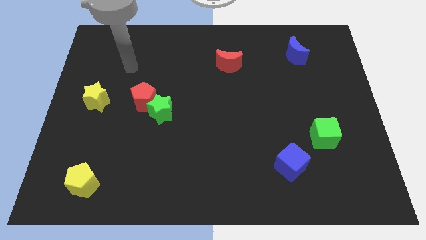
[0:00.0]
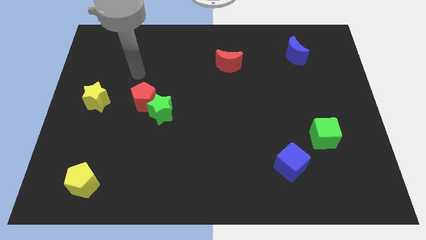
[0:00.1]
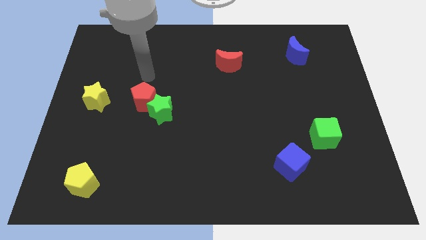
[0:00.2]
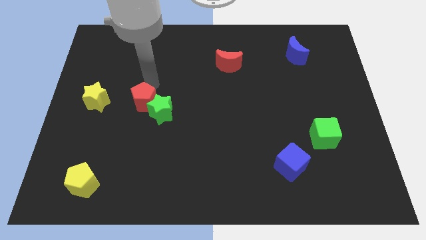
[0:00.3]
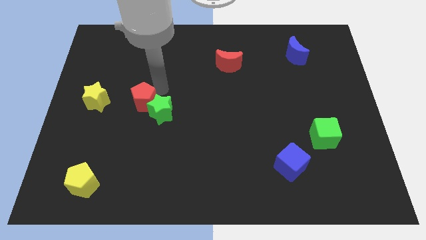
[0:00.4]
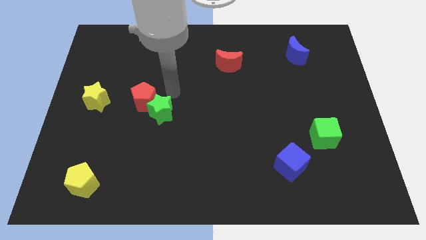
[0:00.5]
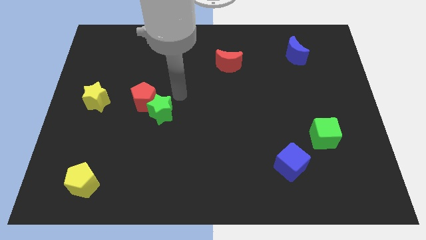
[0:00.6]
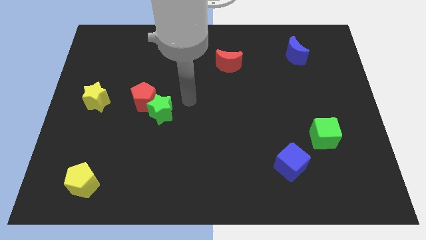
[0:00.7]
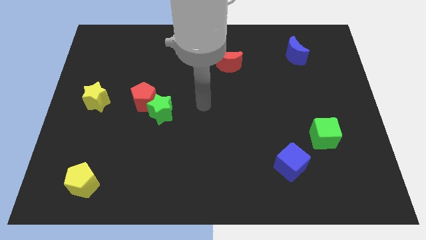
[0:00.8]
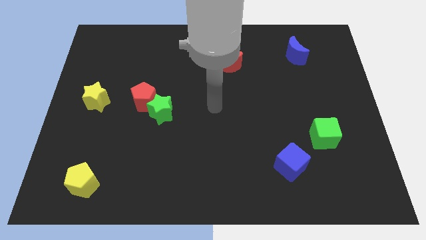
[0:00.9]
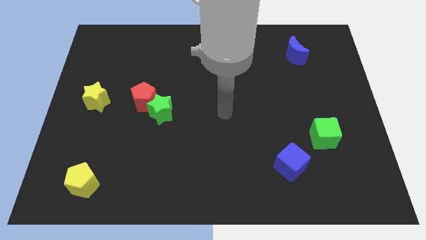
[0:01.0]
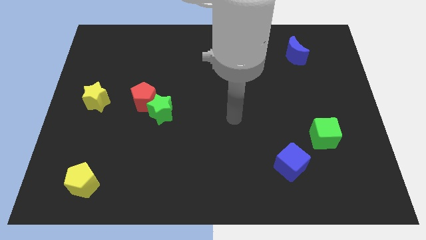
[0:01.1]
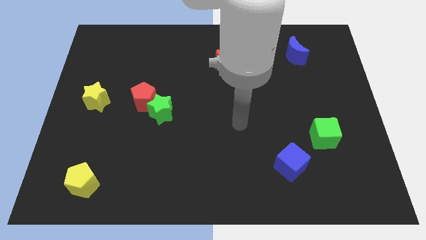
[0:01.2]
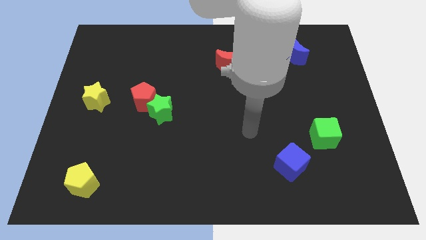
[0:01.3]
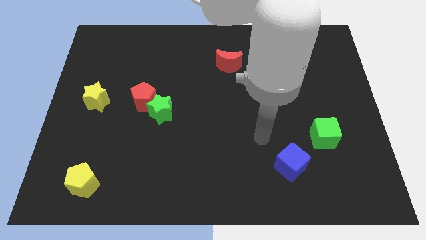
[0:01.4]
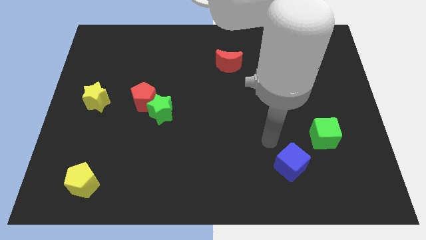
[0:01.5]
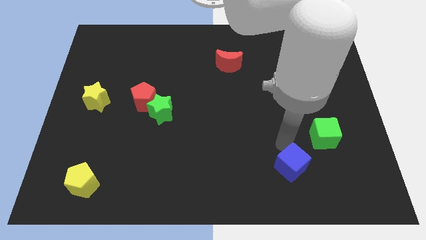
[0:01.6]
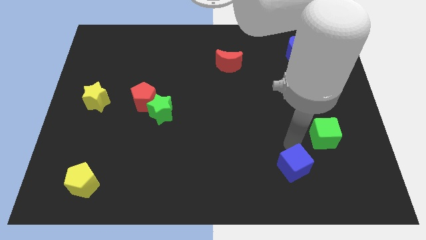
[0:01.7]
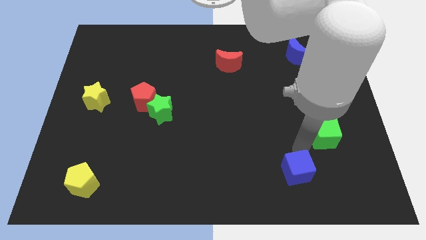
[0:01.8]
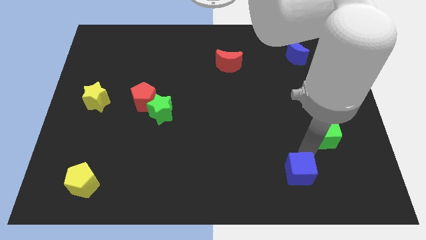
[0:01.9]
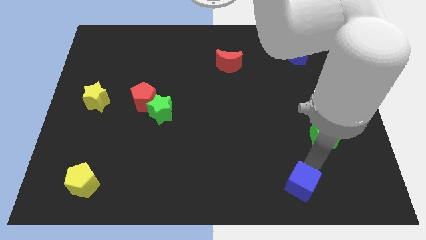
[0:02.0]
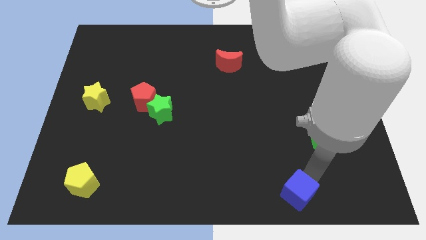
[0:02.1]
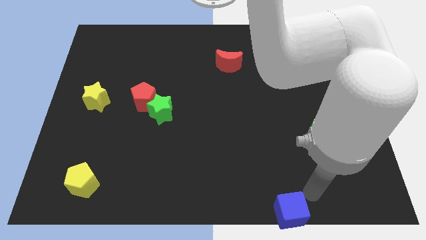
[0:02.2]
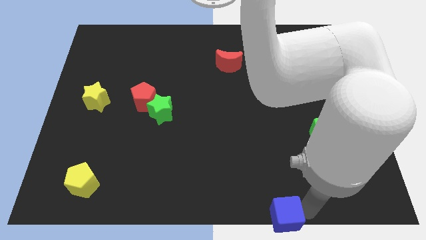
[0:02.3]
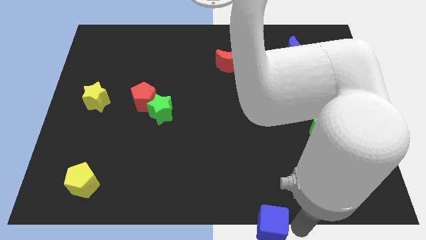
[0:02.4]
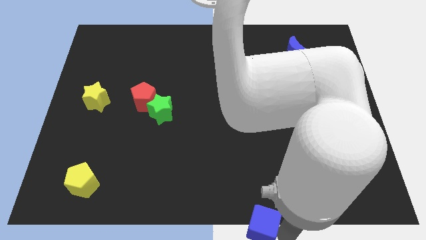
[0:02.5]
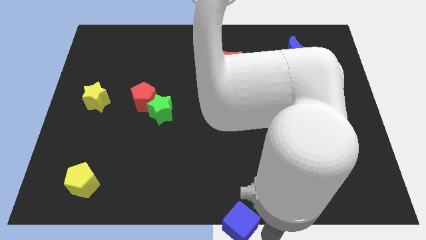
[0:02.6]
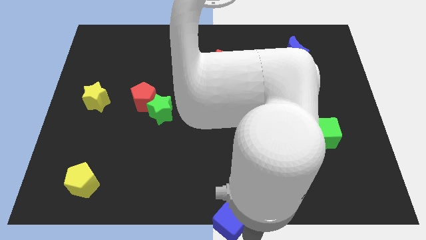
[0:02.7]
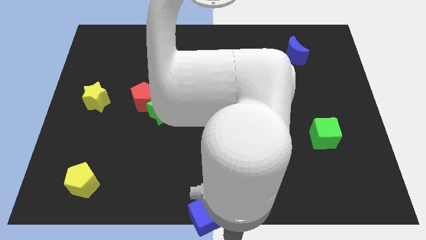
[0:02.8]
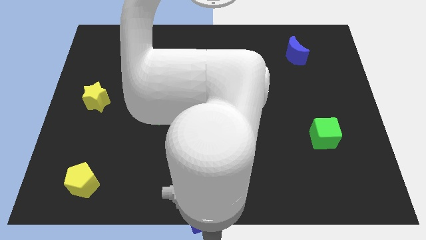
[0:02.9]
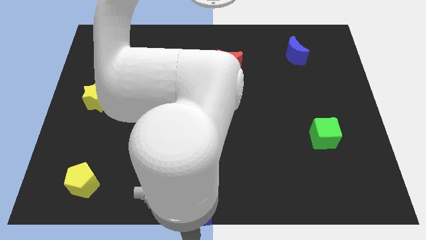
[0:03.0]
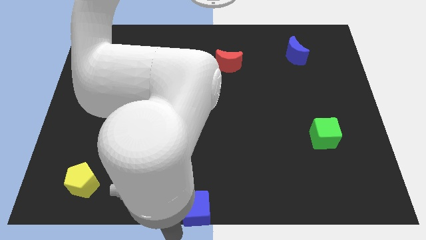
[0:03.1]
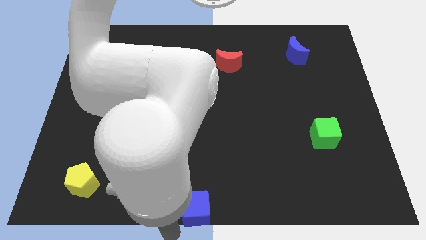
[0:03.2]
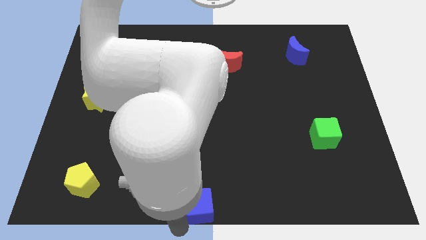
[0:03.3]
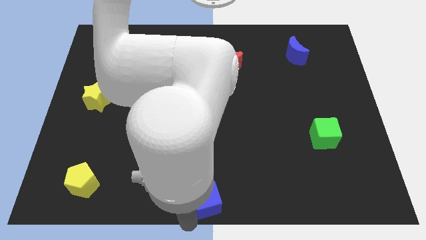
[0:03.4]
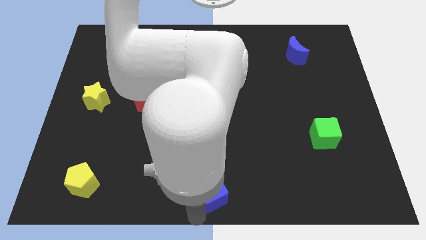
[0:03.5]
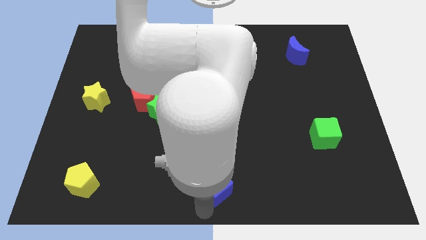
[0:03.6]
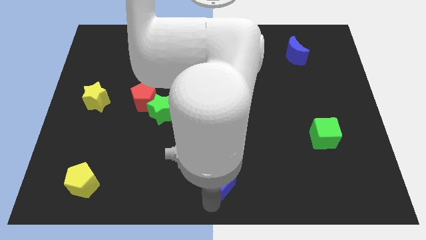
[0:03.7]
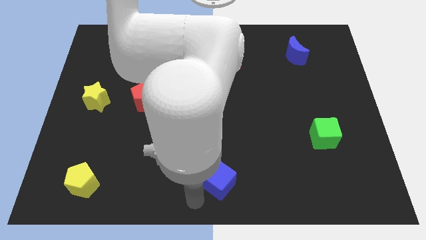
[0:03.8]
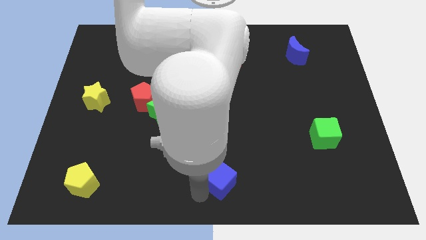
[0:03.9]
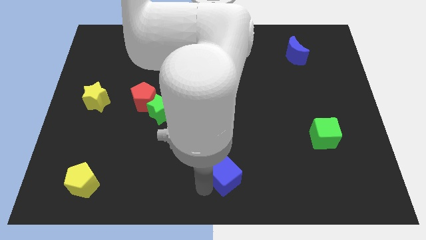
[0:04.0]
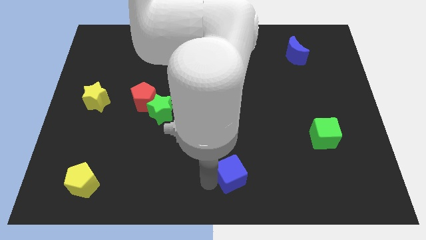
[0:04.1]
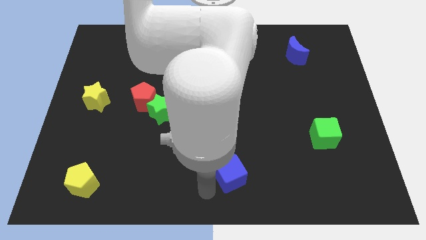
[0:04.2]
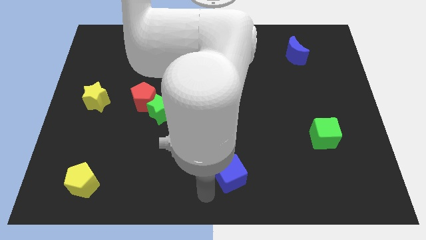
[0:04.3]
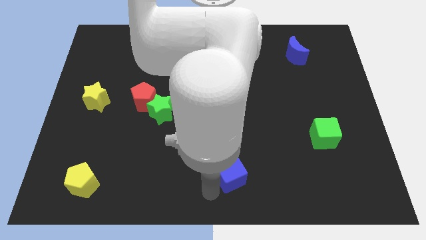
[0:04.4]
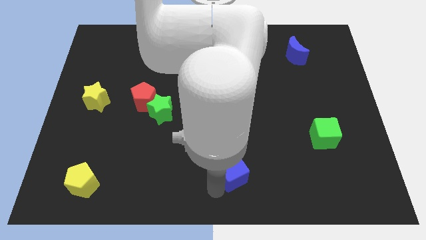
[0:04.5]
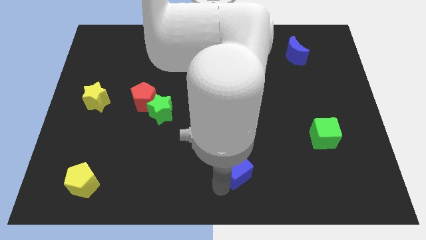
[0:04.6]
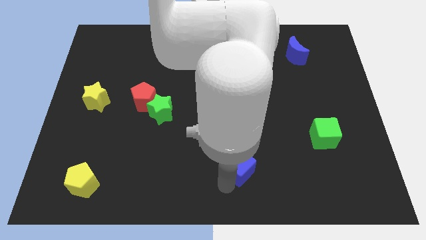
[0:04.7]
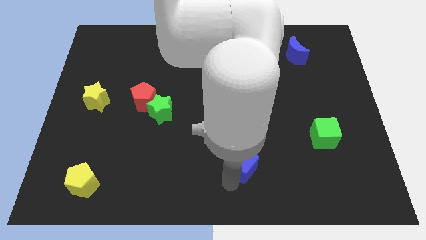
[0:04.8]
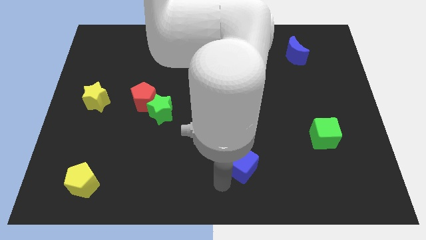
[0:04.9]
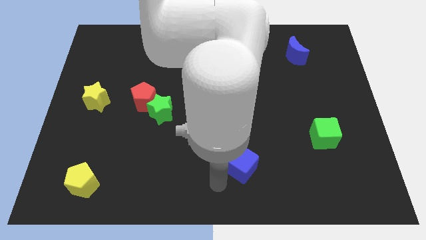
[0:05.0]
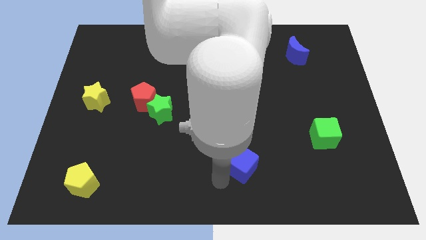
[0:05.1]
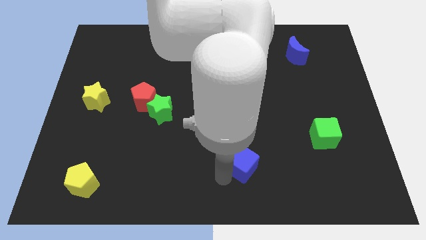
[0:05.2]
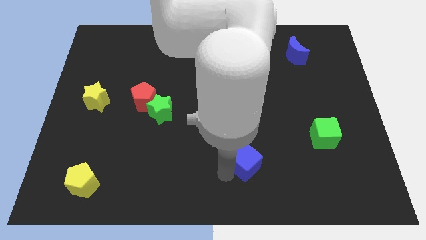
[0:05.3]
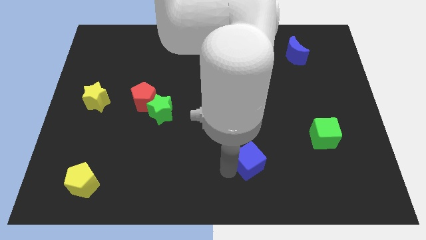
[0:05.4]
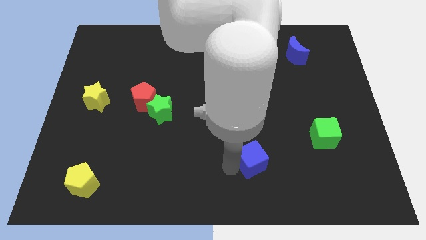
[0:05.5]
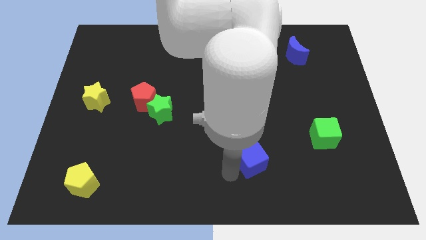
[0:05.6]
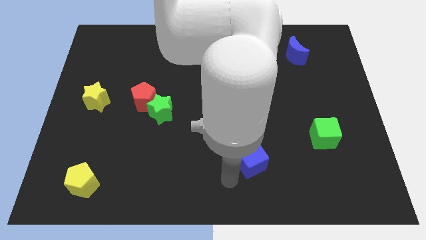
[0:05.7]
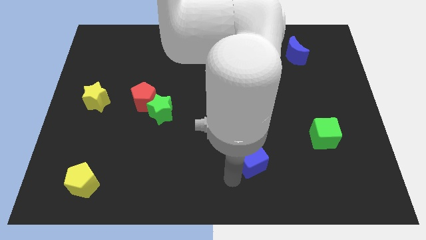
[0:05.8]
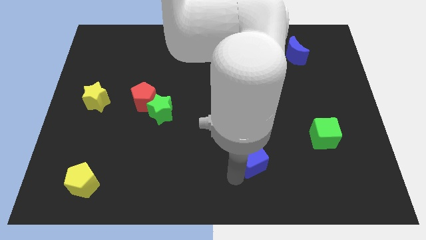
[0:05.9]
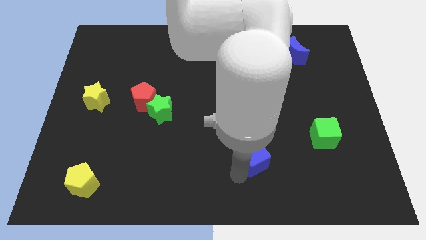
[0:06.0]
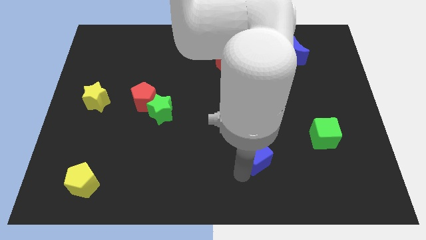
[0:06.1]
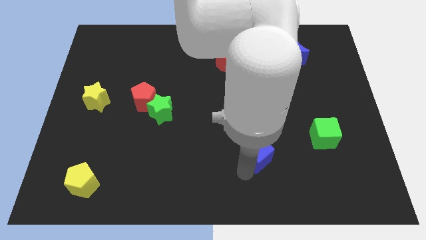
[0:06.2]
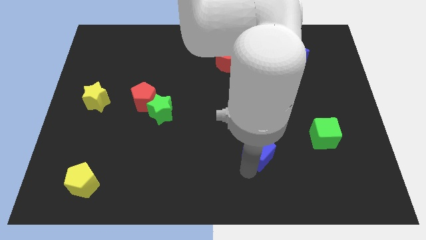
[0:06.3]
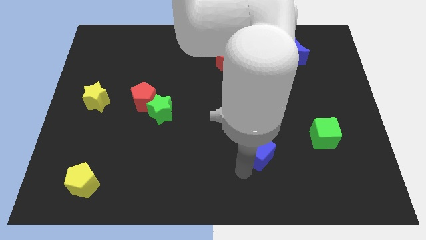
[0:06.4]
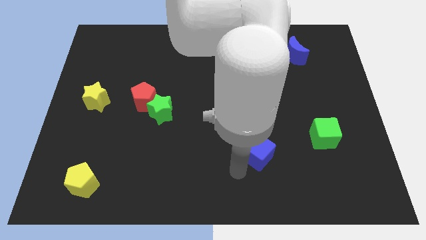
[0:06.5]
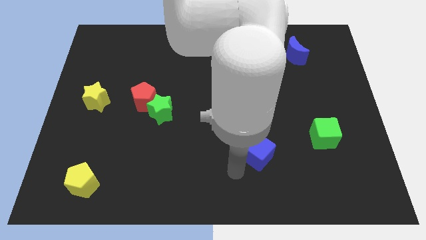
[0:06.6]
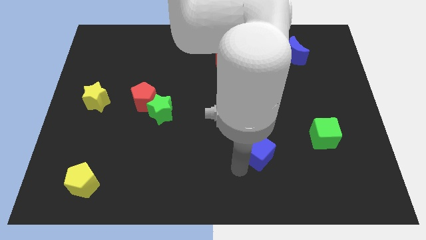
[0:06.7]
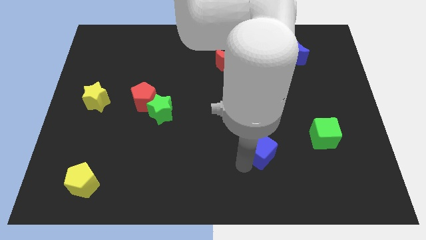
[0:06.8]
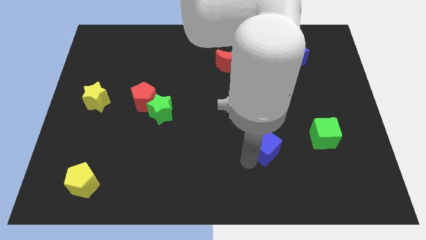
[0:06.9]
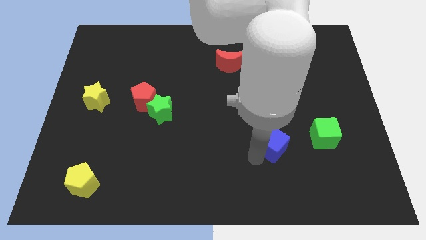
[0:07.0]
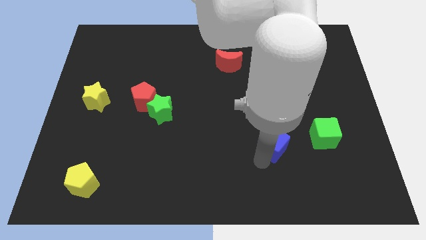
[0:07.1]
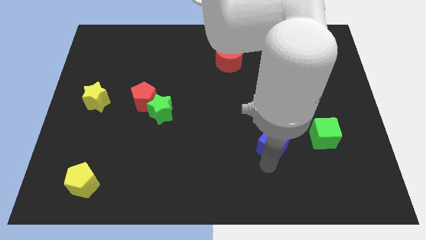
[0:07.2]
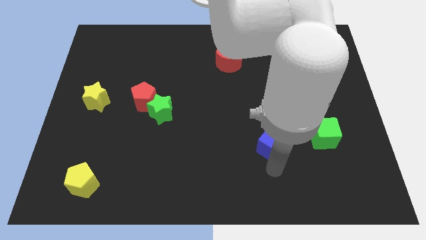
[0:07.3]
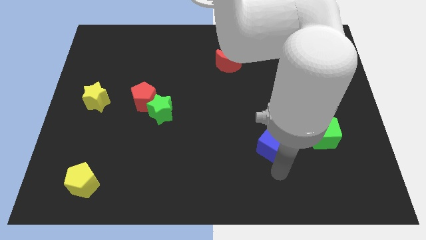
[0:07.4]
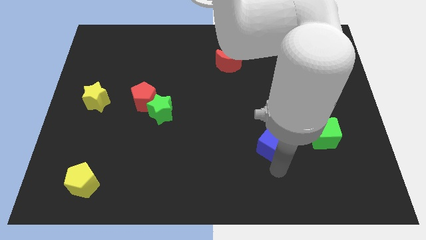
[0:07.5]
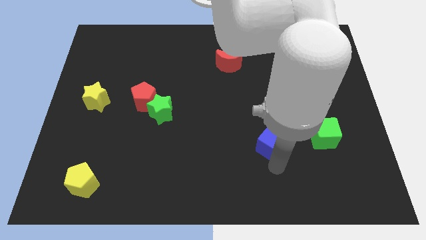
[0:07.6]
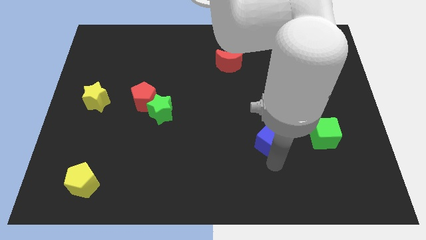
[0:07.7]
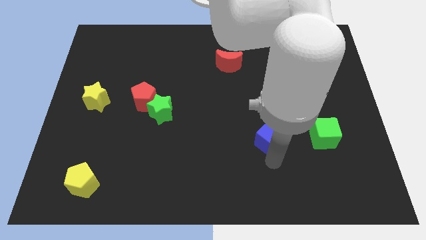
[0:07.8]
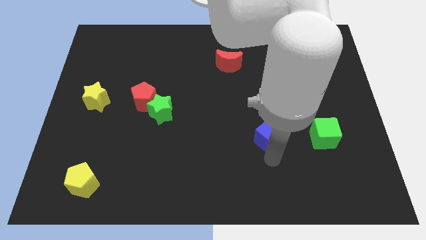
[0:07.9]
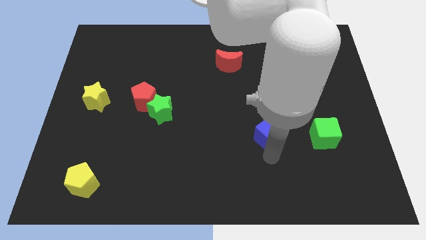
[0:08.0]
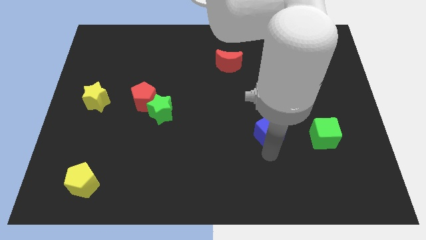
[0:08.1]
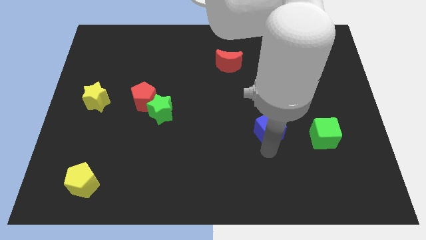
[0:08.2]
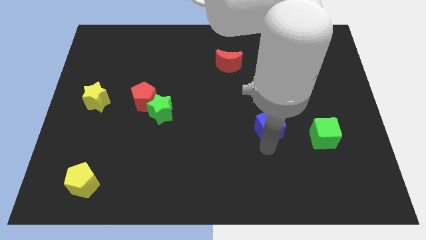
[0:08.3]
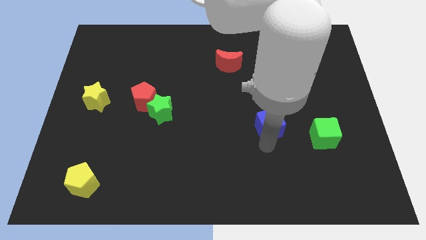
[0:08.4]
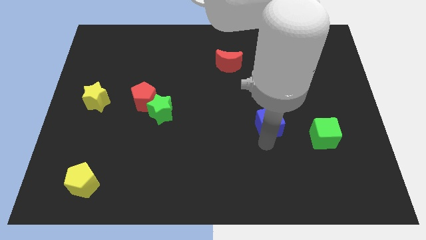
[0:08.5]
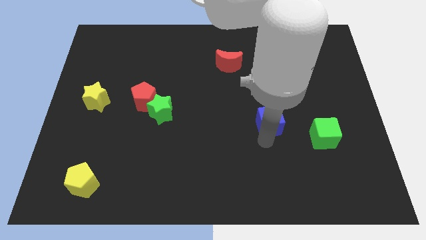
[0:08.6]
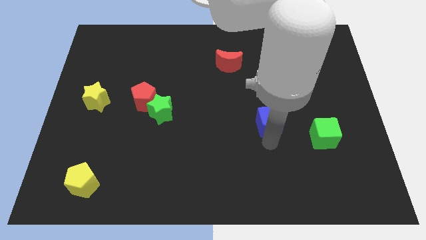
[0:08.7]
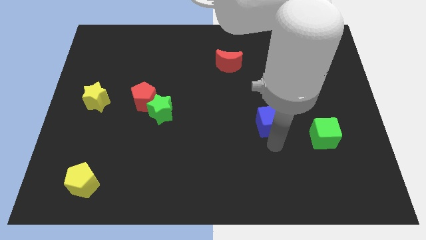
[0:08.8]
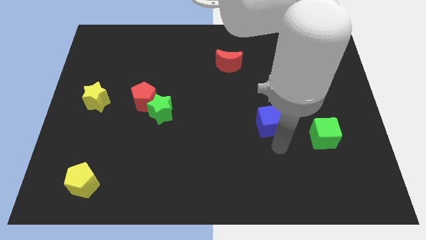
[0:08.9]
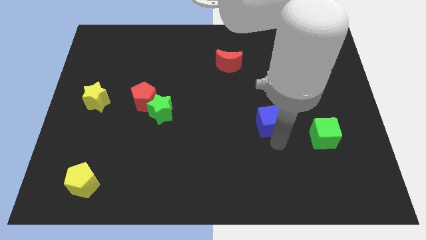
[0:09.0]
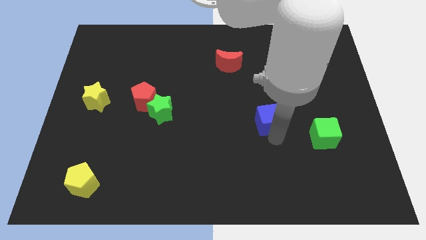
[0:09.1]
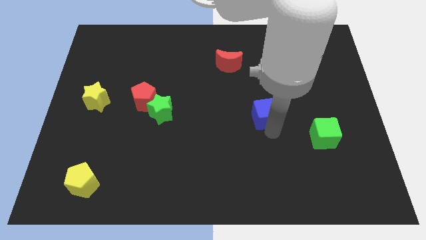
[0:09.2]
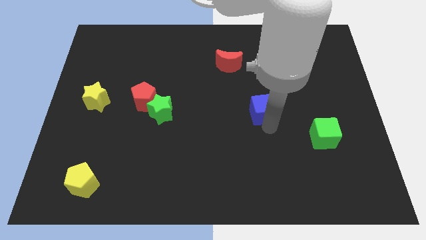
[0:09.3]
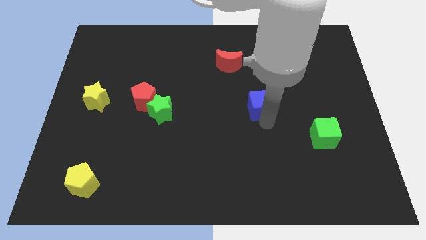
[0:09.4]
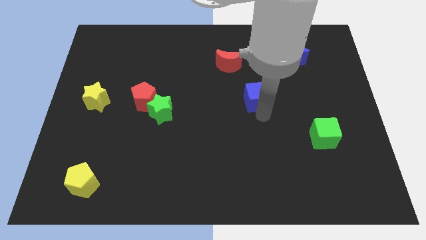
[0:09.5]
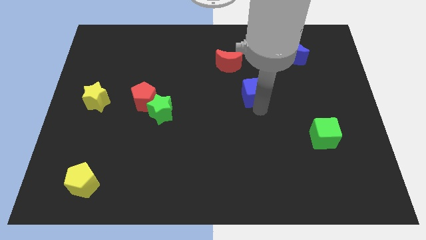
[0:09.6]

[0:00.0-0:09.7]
slide the blue cube to the bottom right of the red moon
